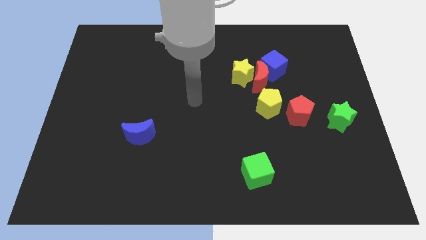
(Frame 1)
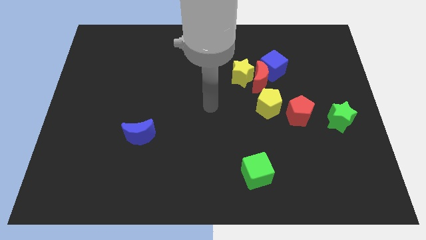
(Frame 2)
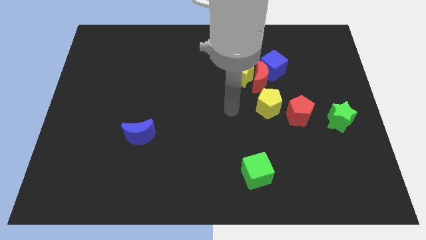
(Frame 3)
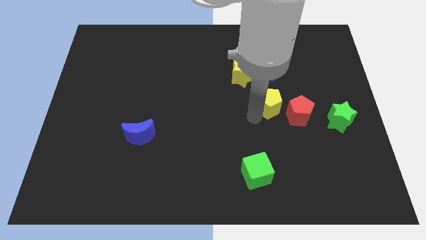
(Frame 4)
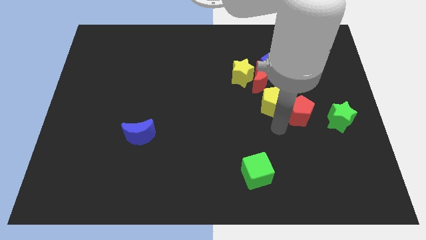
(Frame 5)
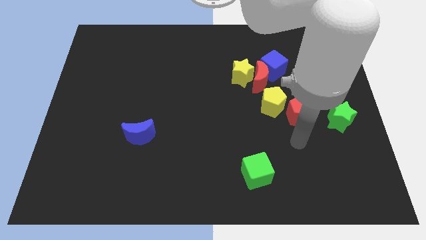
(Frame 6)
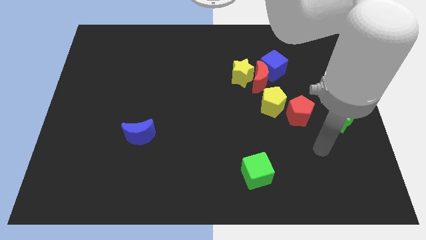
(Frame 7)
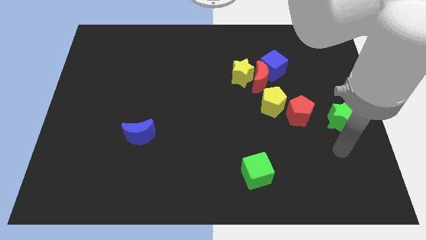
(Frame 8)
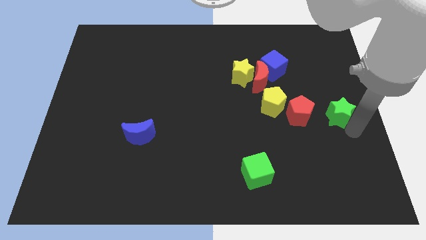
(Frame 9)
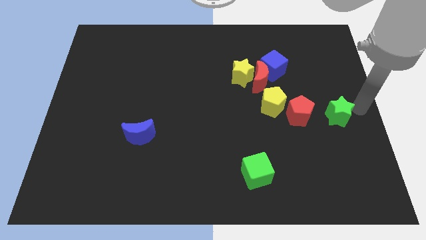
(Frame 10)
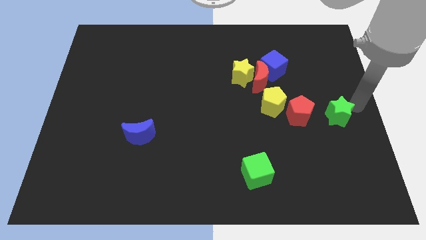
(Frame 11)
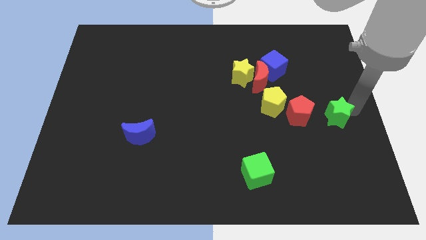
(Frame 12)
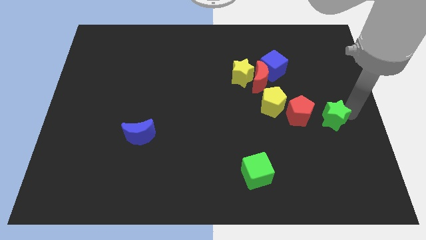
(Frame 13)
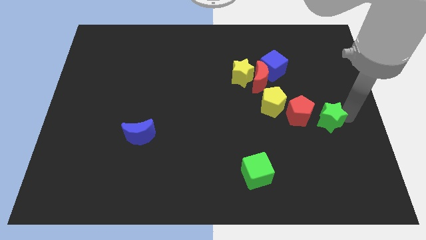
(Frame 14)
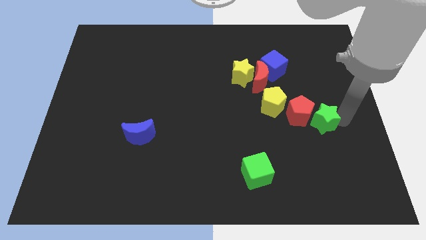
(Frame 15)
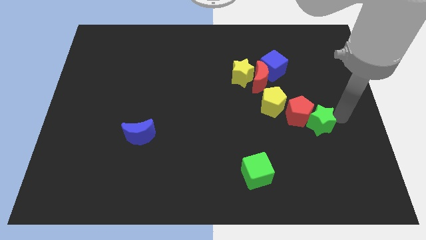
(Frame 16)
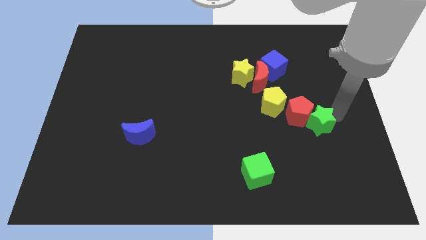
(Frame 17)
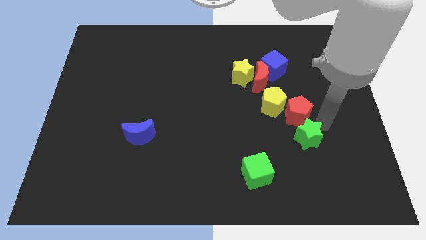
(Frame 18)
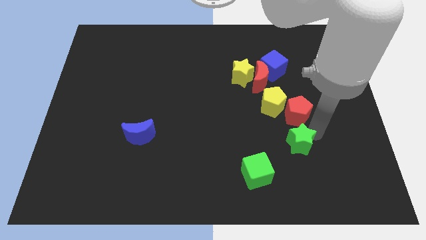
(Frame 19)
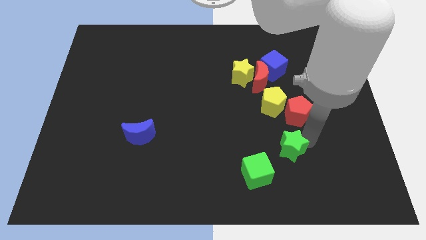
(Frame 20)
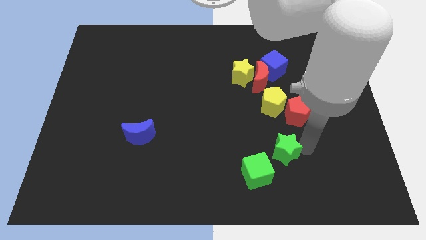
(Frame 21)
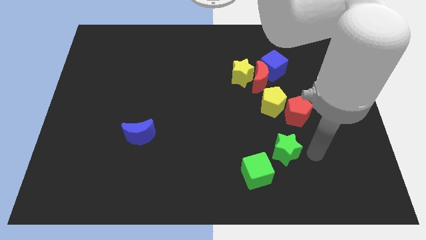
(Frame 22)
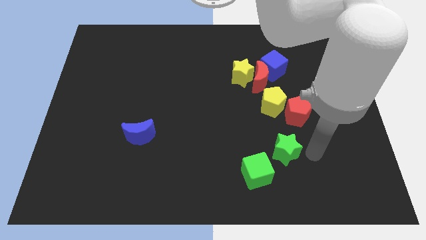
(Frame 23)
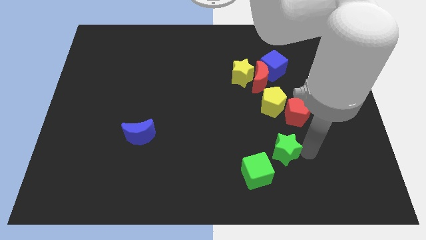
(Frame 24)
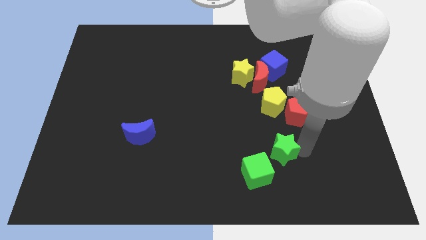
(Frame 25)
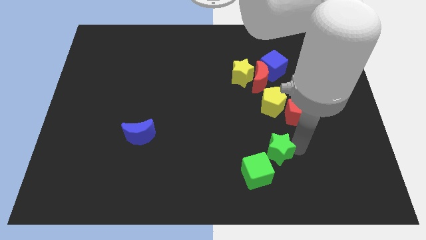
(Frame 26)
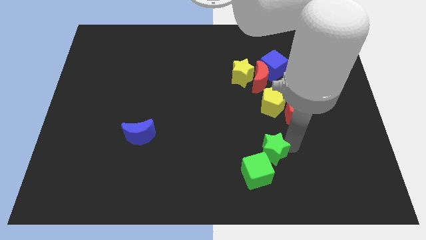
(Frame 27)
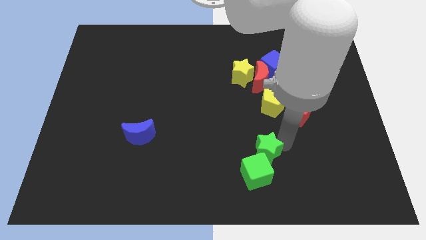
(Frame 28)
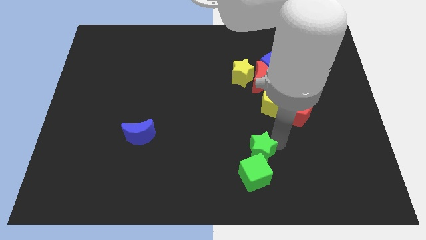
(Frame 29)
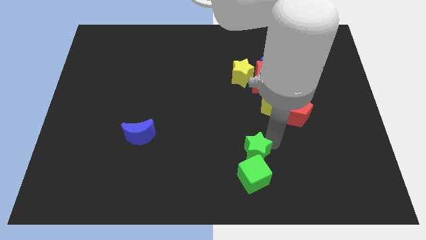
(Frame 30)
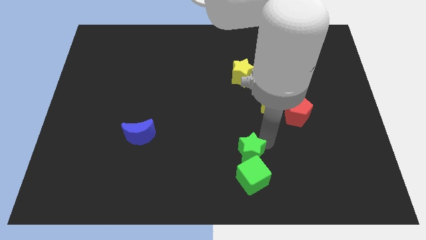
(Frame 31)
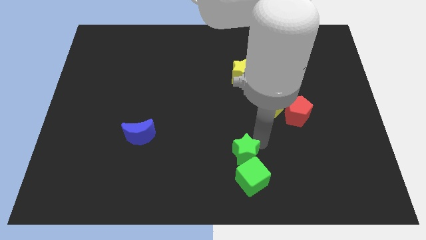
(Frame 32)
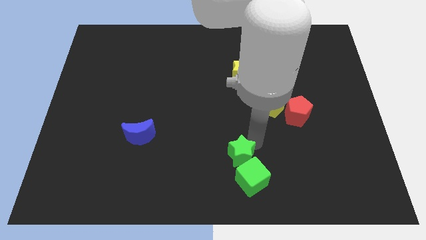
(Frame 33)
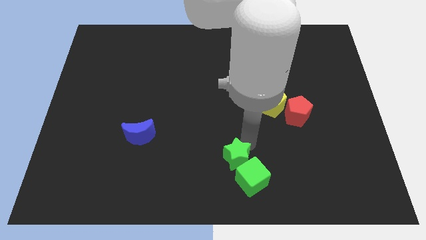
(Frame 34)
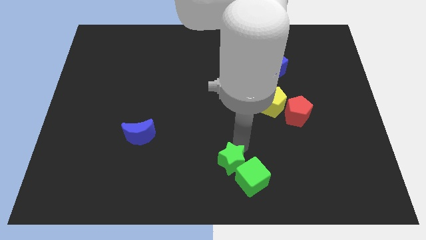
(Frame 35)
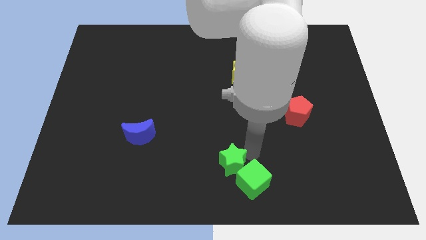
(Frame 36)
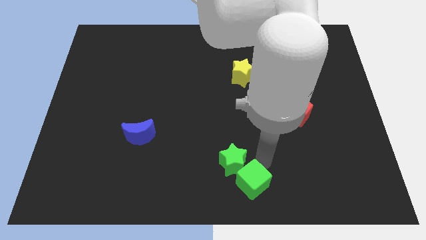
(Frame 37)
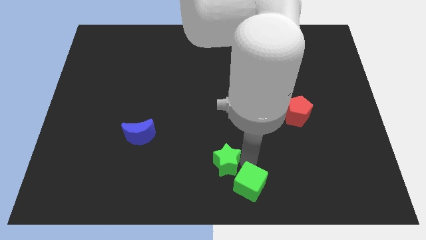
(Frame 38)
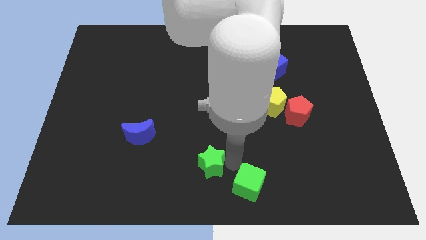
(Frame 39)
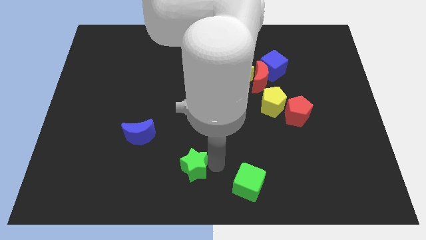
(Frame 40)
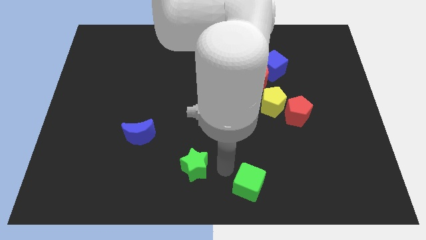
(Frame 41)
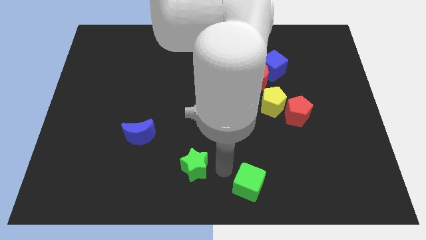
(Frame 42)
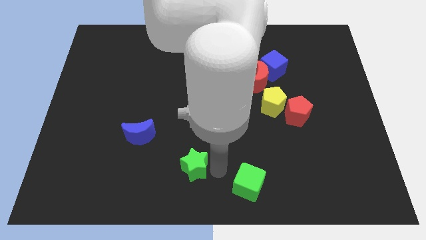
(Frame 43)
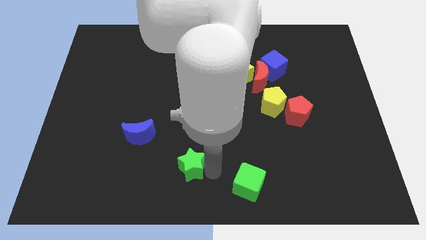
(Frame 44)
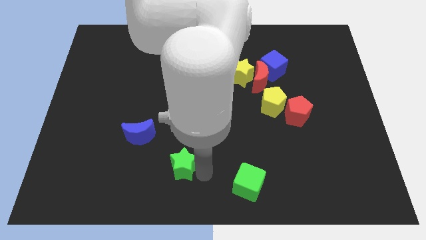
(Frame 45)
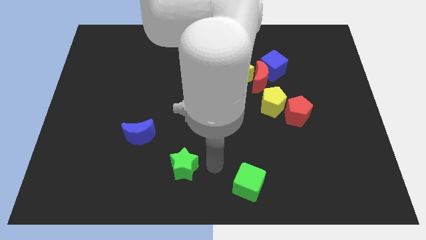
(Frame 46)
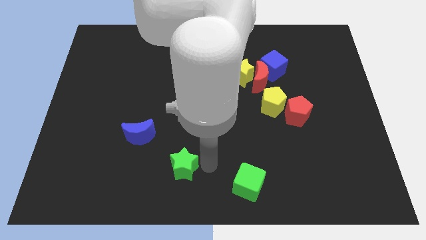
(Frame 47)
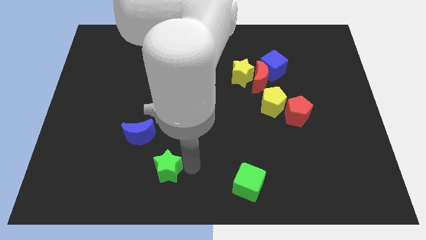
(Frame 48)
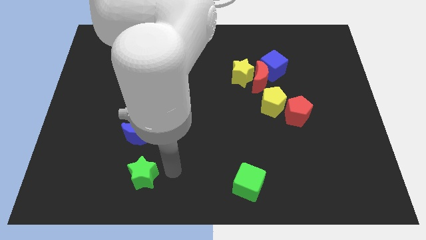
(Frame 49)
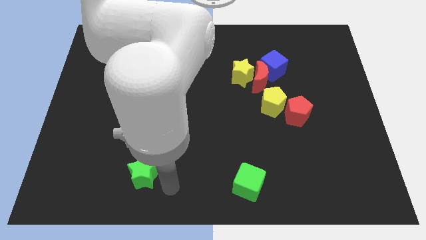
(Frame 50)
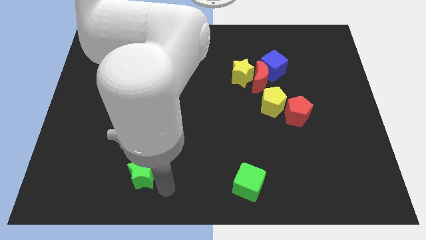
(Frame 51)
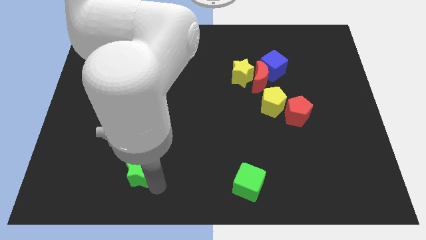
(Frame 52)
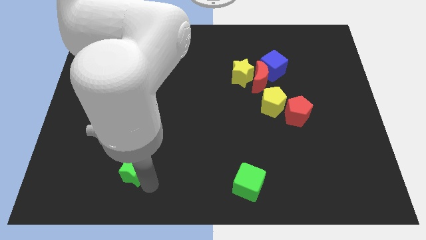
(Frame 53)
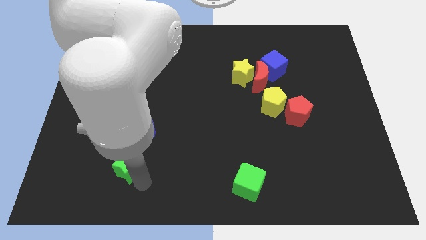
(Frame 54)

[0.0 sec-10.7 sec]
put the green star diagonally down and to the left of the blue moon

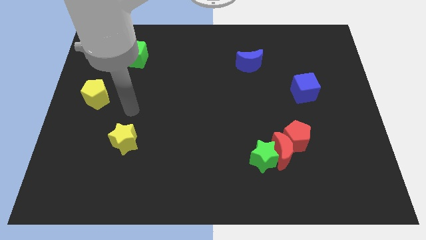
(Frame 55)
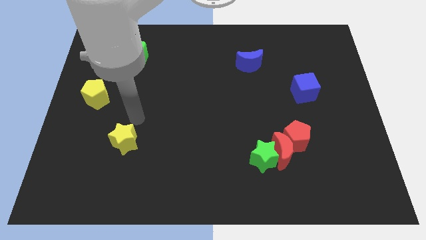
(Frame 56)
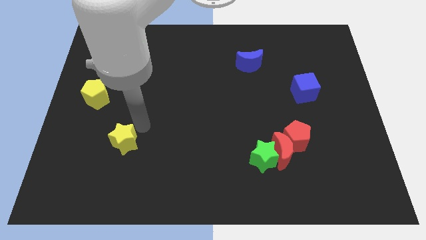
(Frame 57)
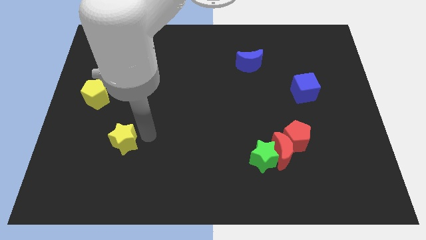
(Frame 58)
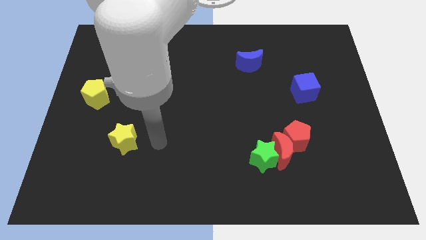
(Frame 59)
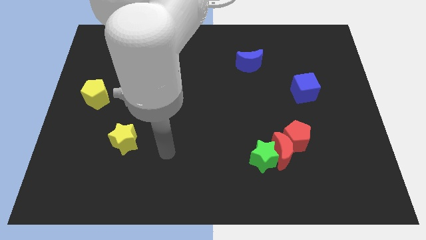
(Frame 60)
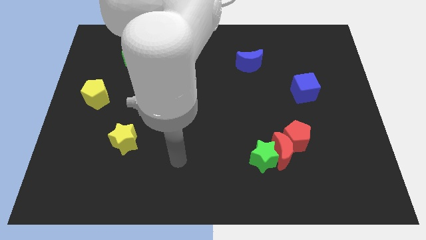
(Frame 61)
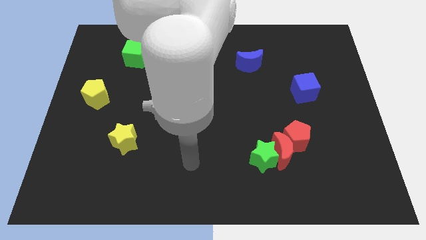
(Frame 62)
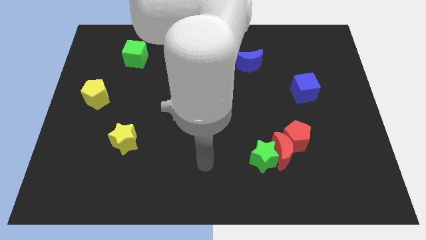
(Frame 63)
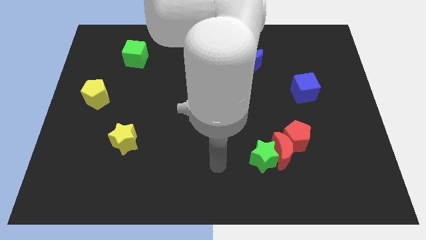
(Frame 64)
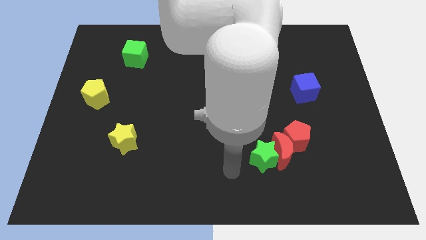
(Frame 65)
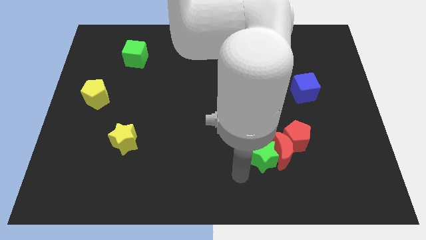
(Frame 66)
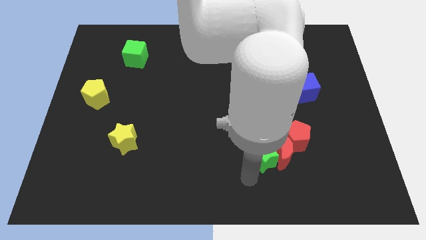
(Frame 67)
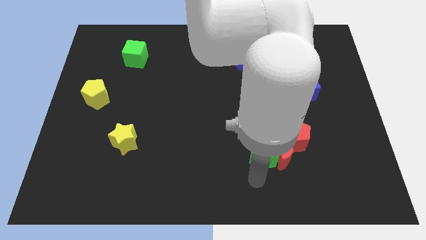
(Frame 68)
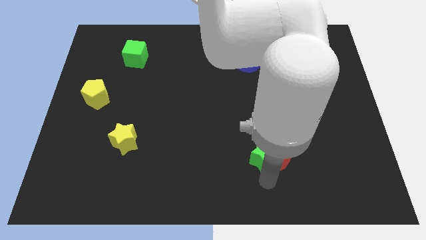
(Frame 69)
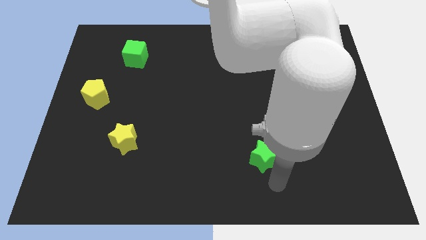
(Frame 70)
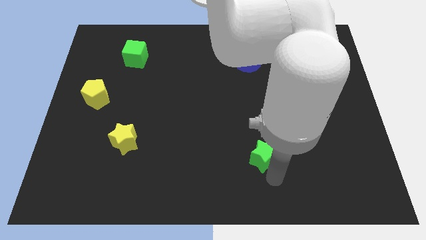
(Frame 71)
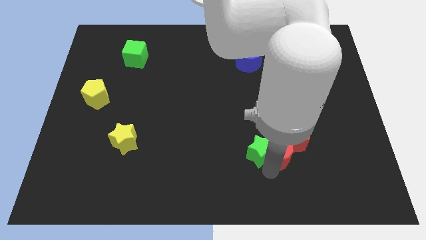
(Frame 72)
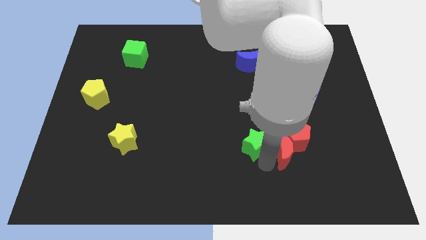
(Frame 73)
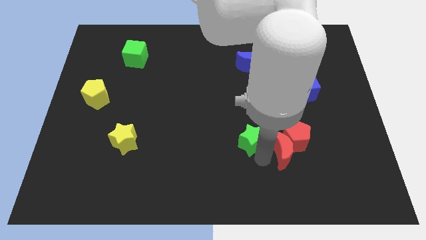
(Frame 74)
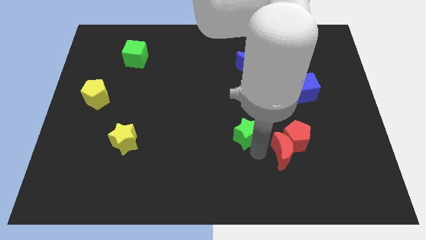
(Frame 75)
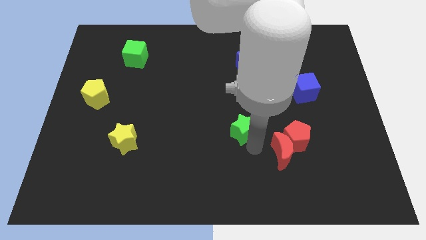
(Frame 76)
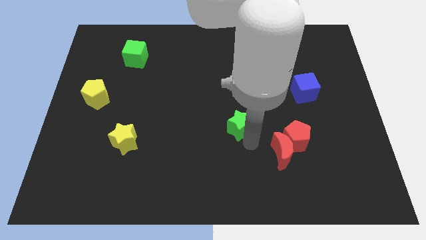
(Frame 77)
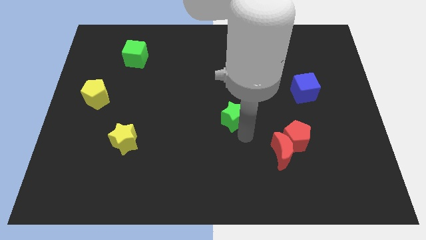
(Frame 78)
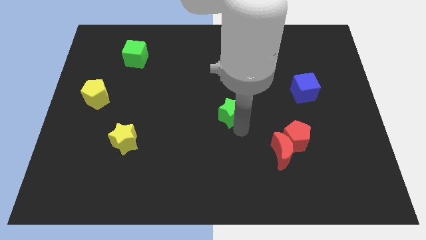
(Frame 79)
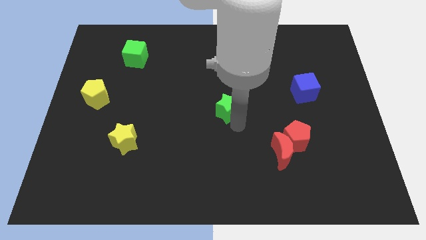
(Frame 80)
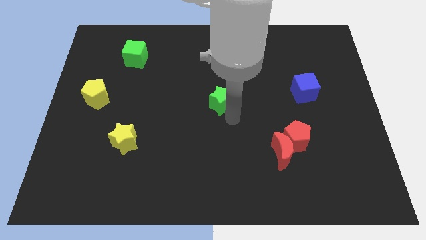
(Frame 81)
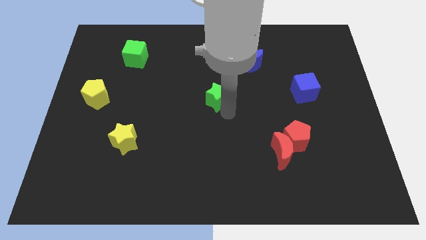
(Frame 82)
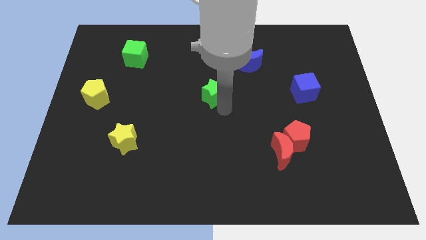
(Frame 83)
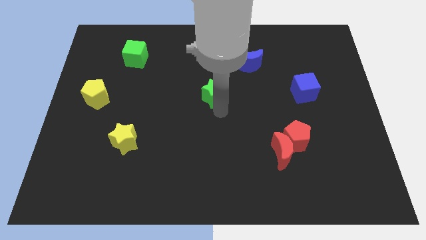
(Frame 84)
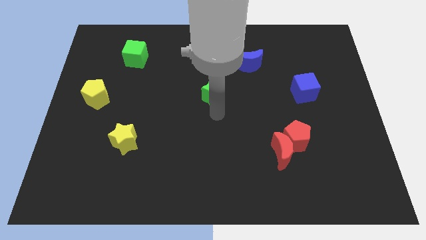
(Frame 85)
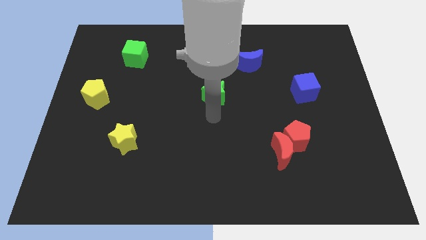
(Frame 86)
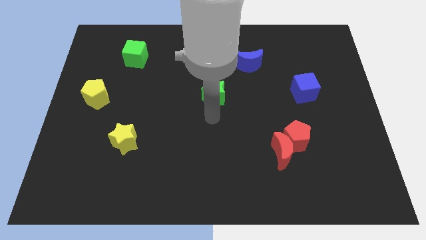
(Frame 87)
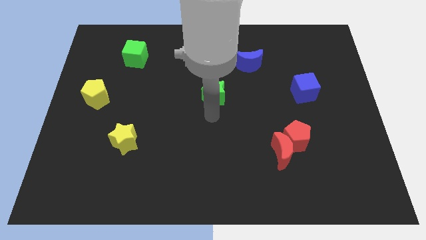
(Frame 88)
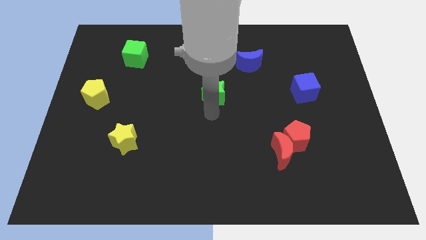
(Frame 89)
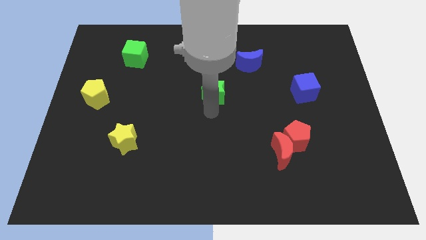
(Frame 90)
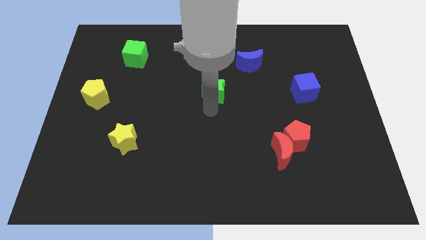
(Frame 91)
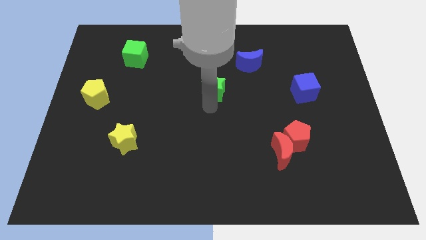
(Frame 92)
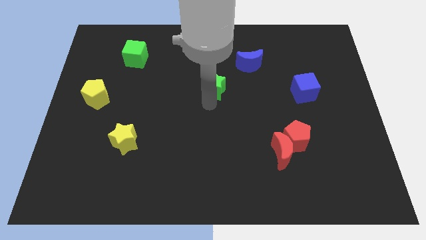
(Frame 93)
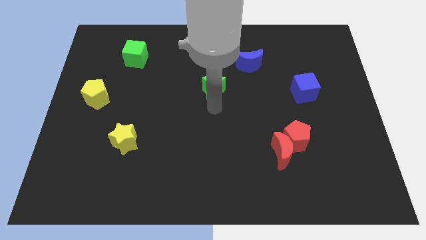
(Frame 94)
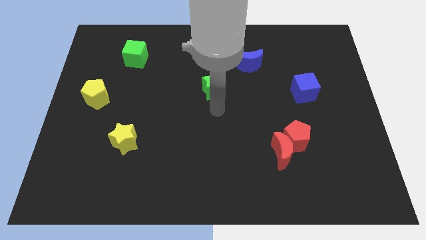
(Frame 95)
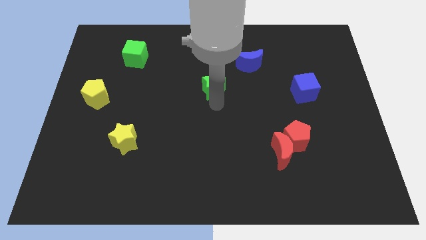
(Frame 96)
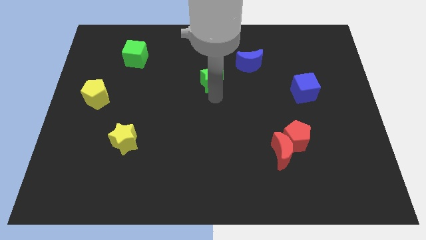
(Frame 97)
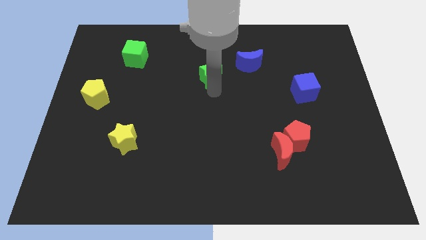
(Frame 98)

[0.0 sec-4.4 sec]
slide the green star just left of the blue moon
